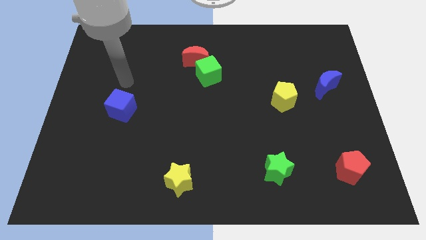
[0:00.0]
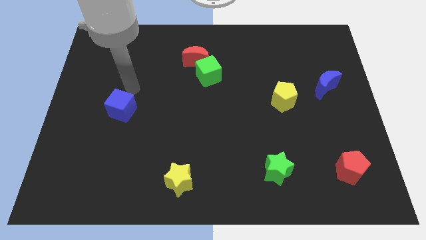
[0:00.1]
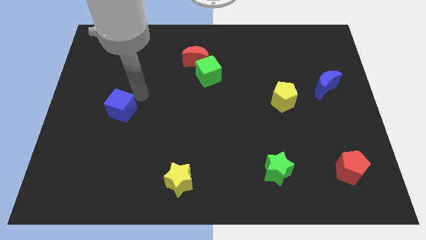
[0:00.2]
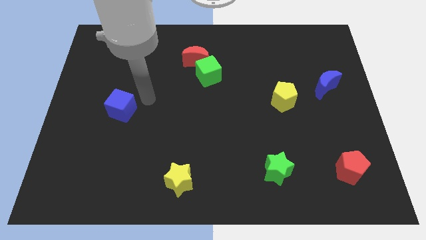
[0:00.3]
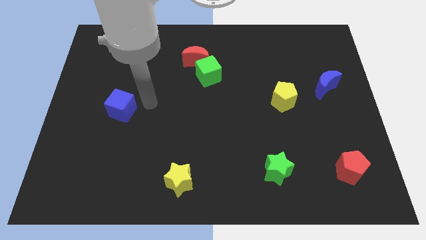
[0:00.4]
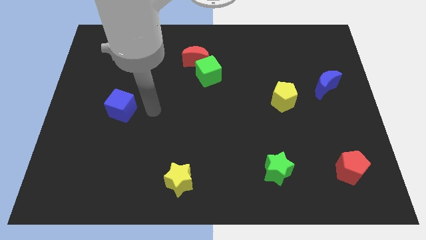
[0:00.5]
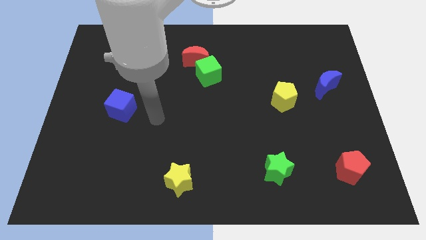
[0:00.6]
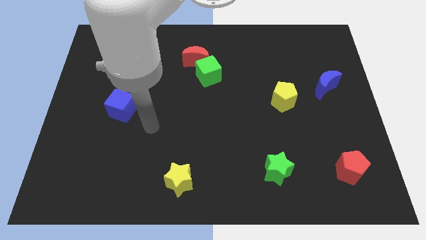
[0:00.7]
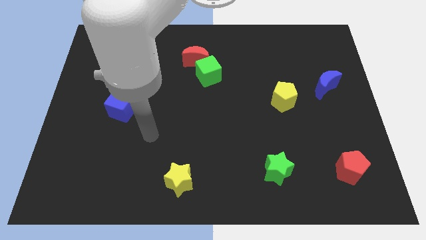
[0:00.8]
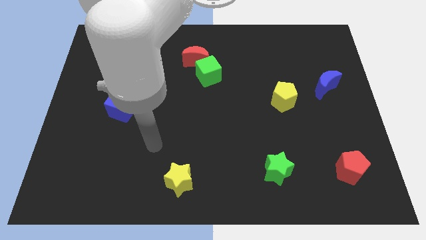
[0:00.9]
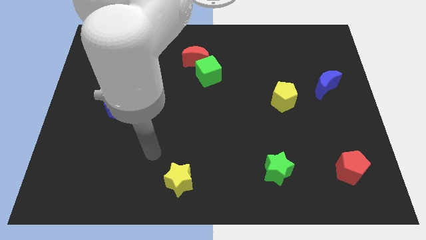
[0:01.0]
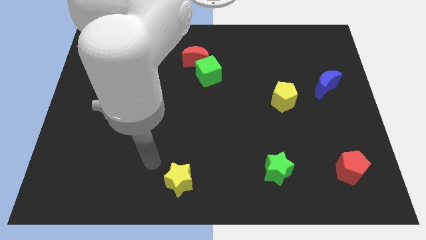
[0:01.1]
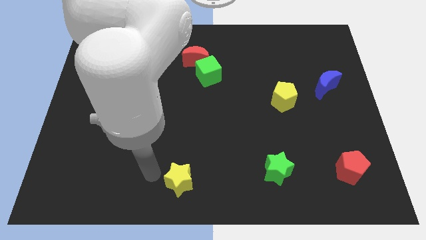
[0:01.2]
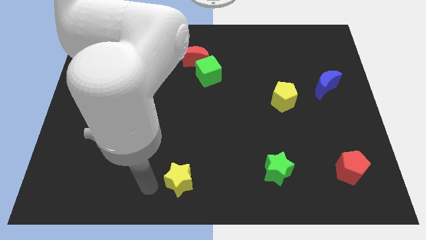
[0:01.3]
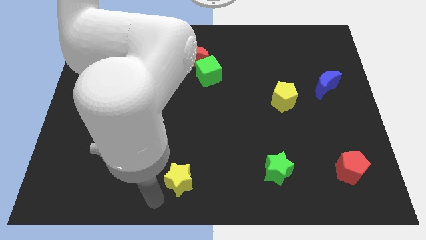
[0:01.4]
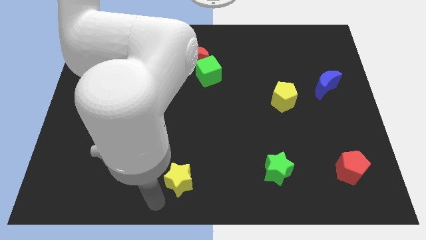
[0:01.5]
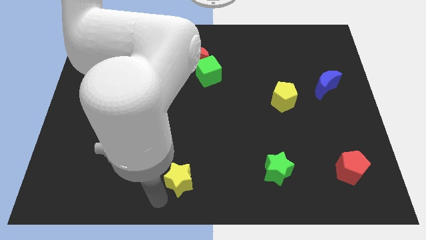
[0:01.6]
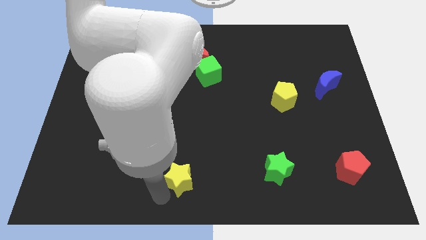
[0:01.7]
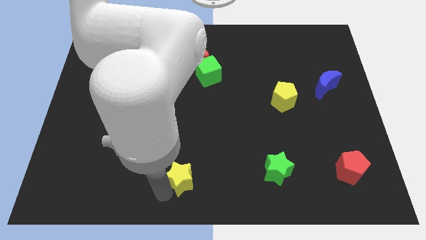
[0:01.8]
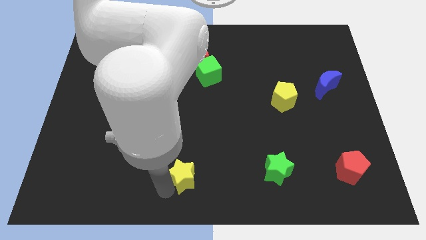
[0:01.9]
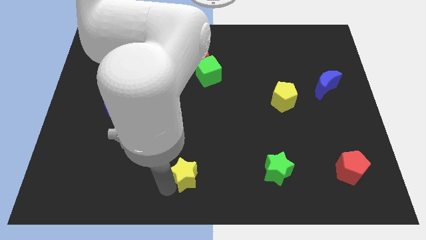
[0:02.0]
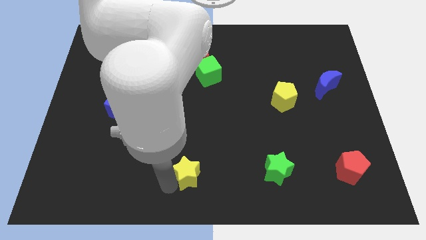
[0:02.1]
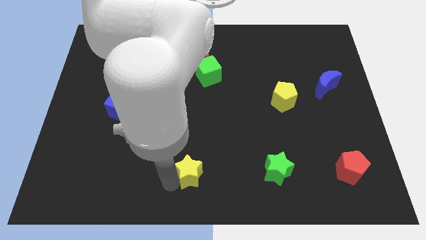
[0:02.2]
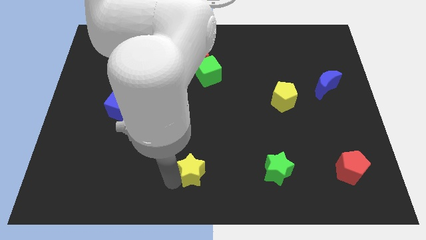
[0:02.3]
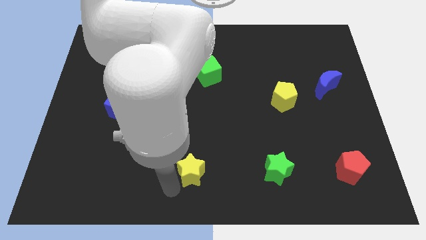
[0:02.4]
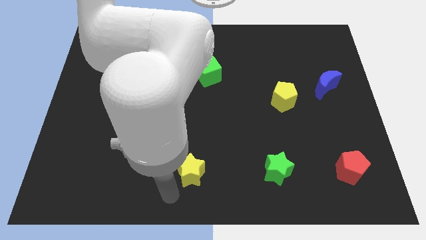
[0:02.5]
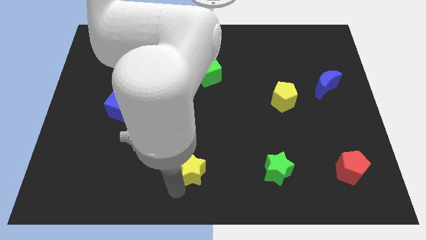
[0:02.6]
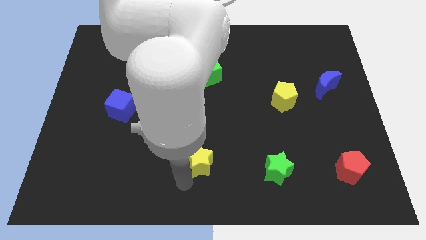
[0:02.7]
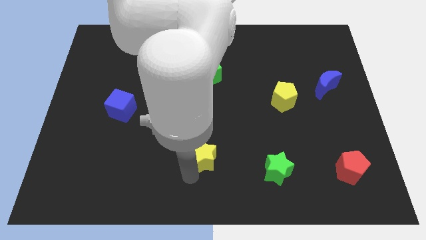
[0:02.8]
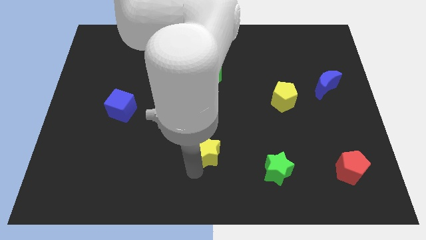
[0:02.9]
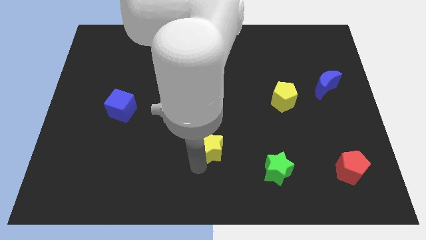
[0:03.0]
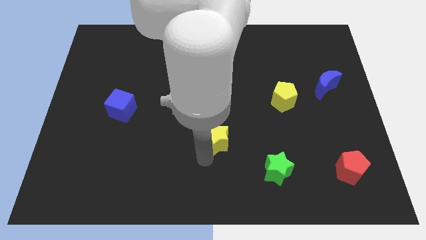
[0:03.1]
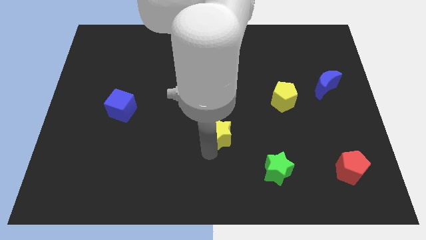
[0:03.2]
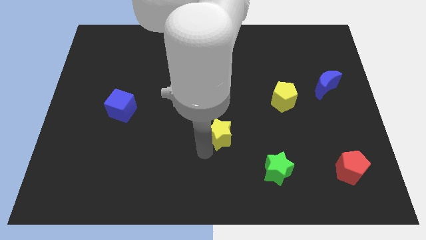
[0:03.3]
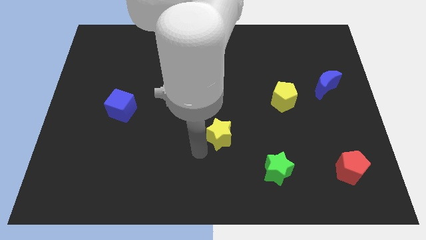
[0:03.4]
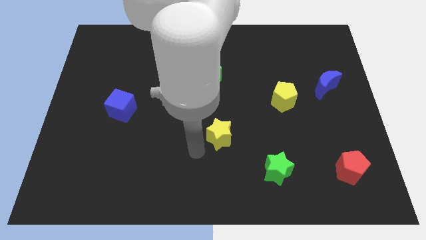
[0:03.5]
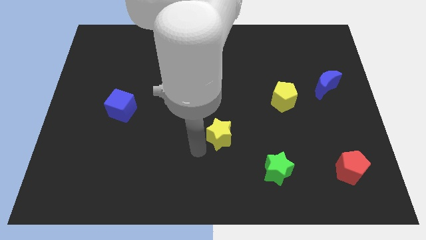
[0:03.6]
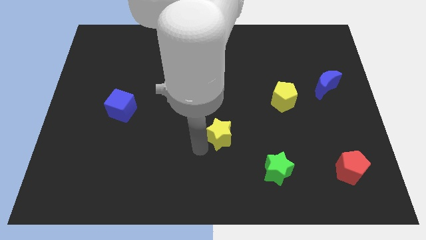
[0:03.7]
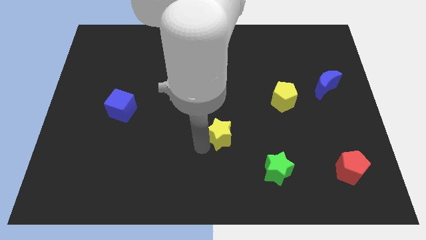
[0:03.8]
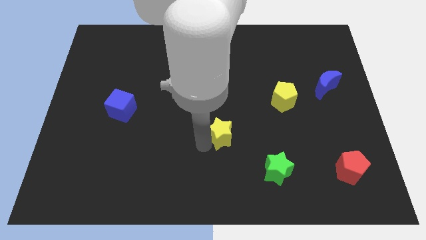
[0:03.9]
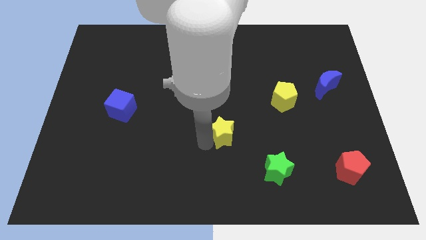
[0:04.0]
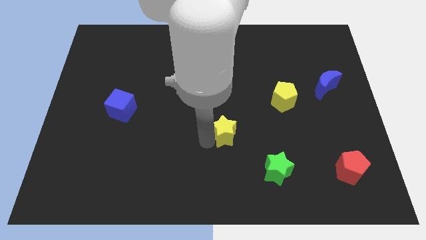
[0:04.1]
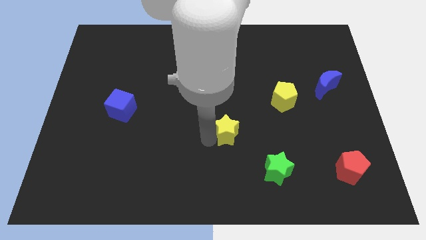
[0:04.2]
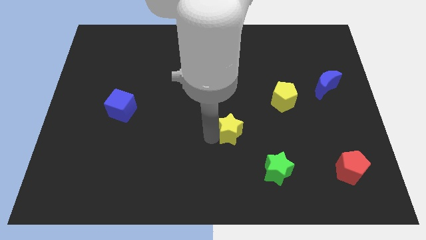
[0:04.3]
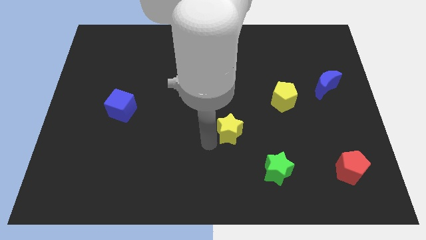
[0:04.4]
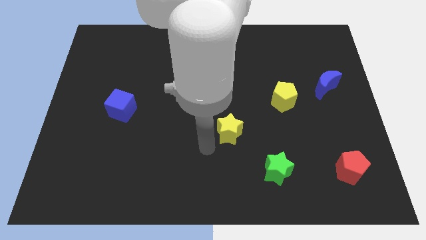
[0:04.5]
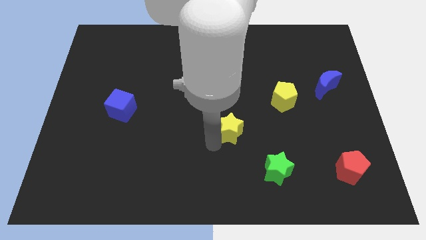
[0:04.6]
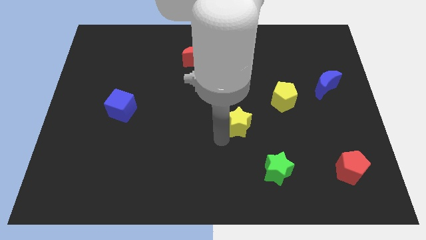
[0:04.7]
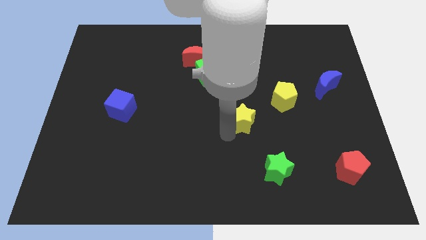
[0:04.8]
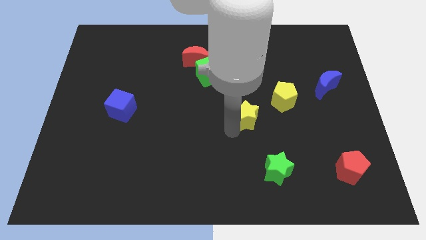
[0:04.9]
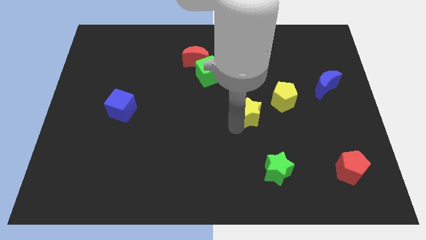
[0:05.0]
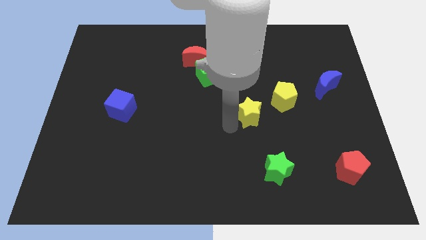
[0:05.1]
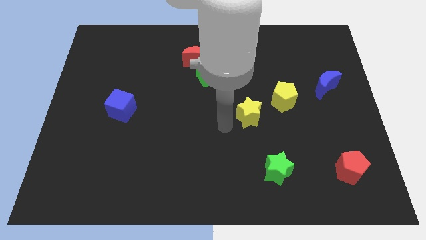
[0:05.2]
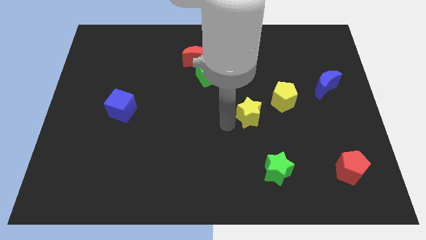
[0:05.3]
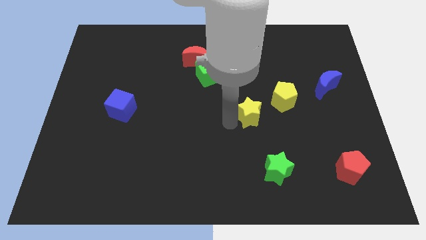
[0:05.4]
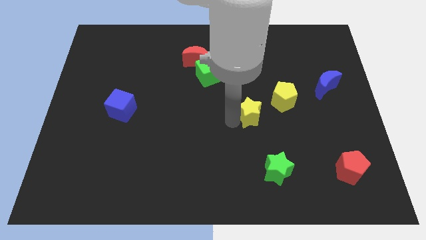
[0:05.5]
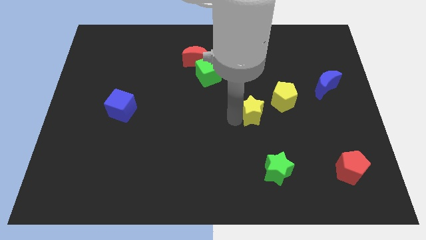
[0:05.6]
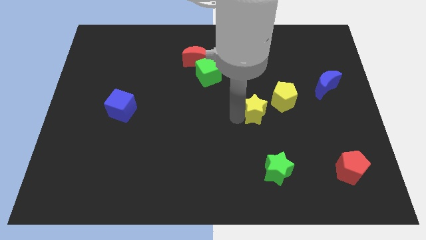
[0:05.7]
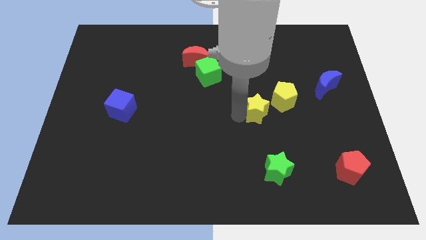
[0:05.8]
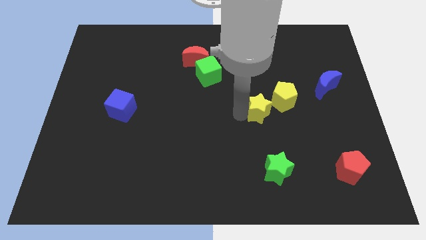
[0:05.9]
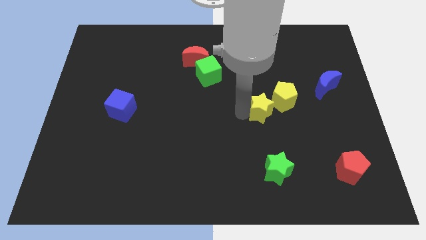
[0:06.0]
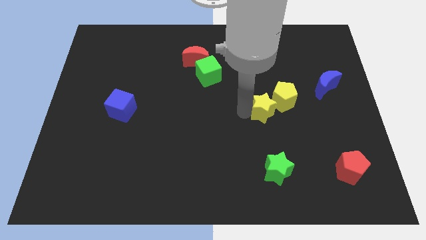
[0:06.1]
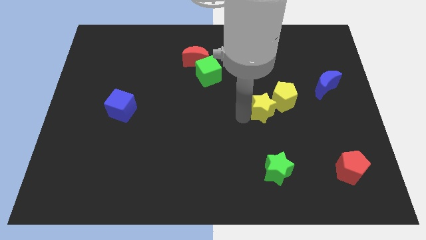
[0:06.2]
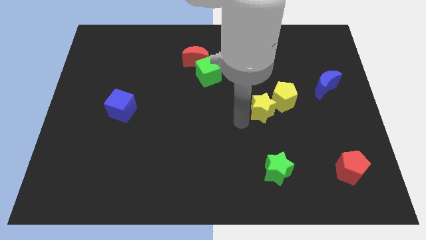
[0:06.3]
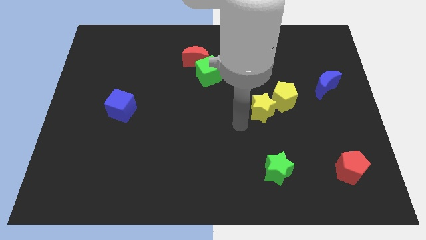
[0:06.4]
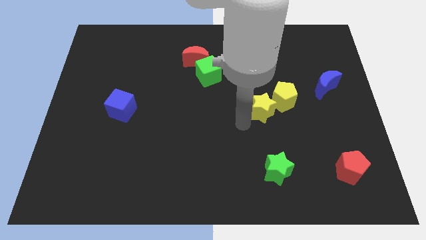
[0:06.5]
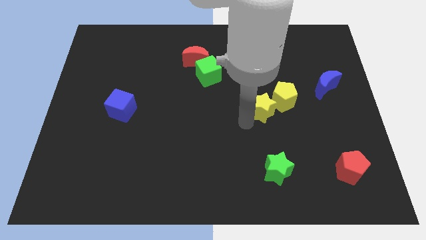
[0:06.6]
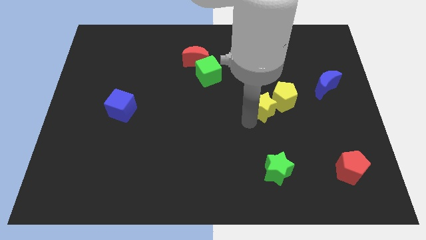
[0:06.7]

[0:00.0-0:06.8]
move the yellow star close to the yellow pentagon
